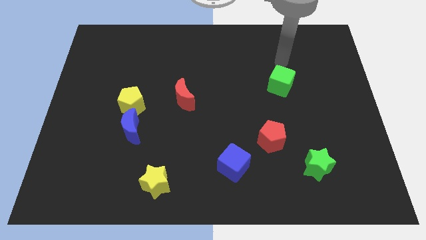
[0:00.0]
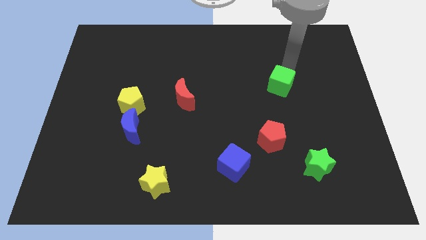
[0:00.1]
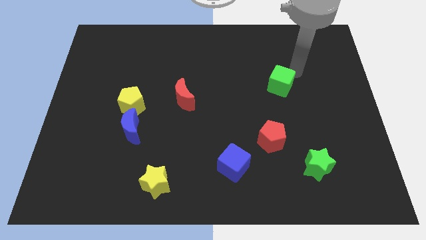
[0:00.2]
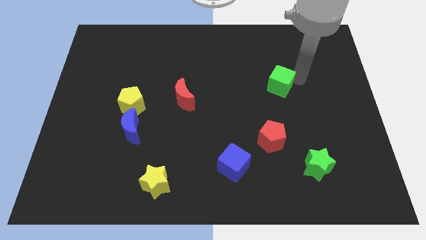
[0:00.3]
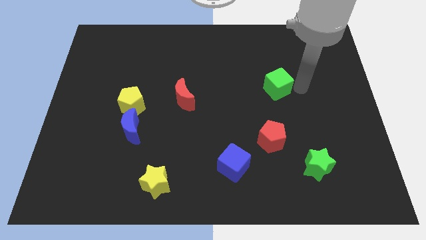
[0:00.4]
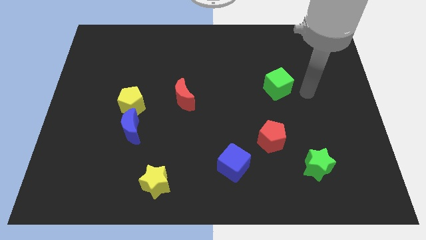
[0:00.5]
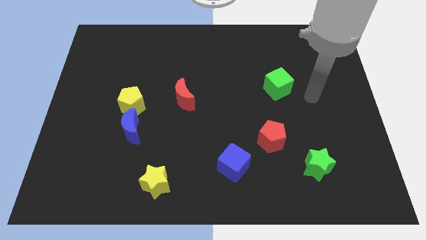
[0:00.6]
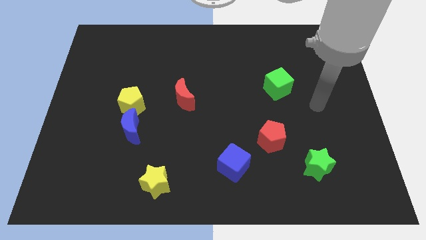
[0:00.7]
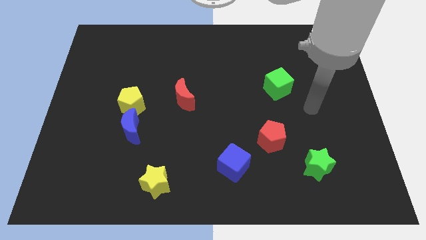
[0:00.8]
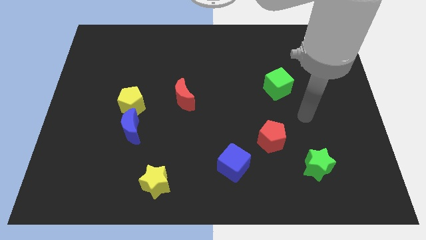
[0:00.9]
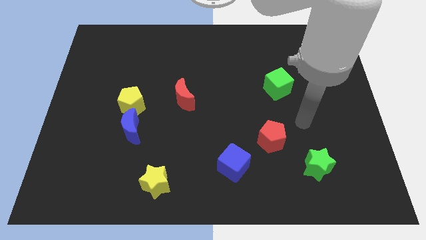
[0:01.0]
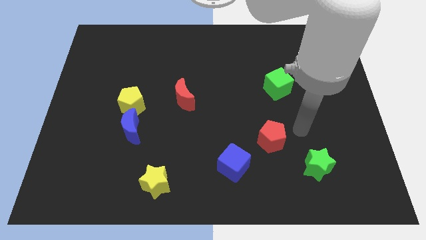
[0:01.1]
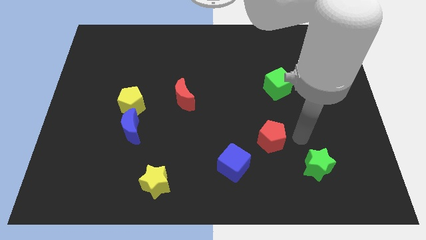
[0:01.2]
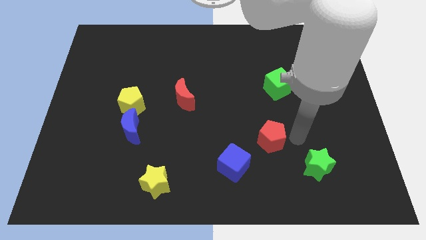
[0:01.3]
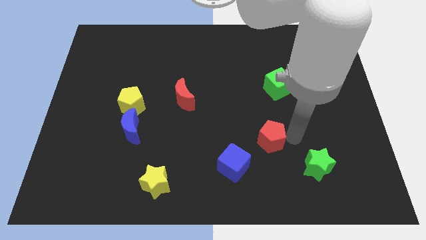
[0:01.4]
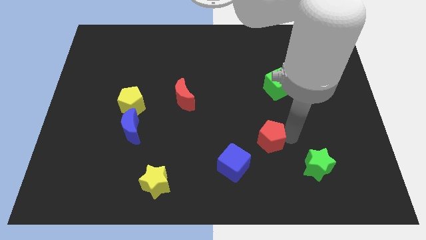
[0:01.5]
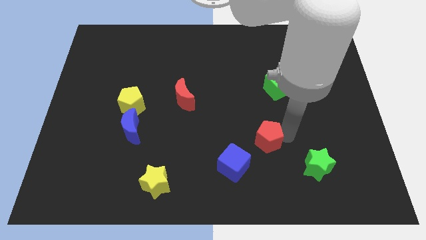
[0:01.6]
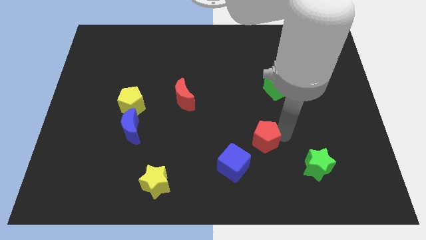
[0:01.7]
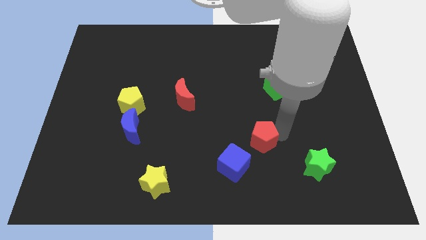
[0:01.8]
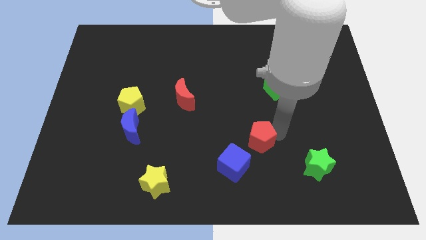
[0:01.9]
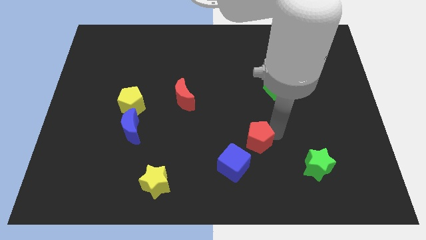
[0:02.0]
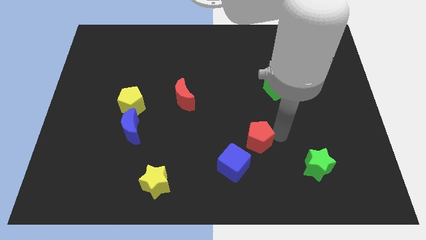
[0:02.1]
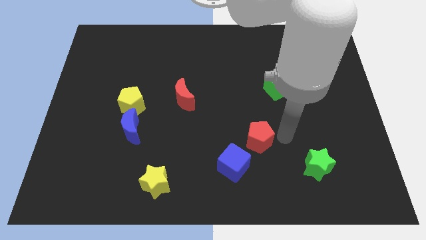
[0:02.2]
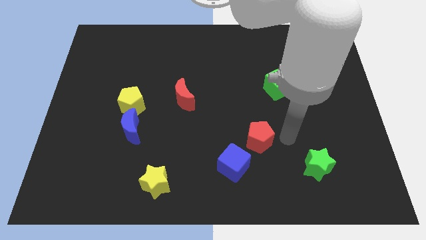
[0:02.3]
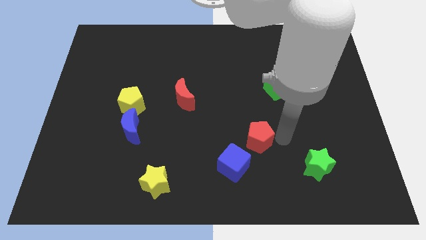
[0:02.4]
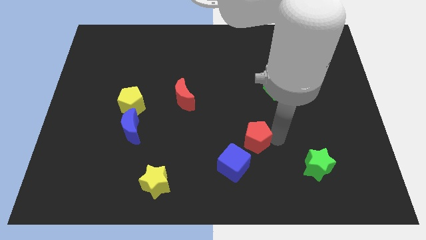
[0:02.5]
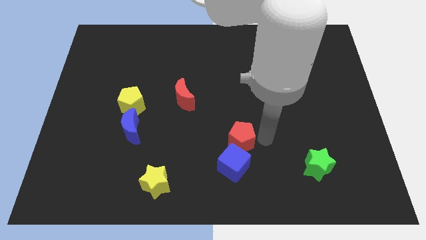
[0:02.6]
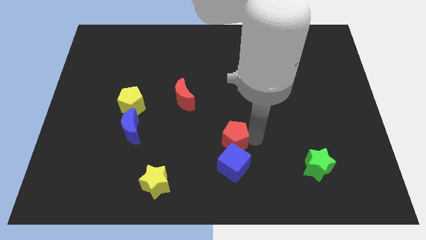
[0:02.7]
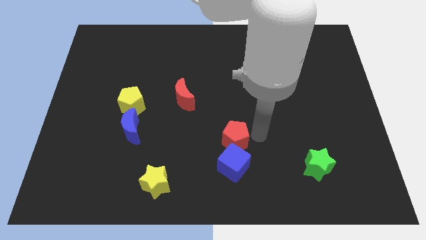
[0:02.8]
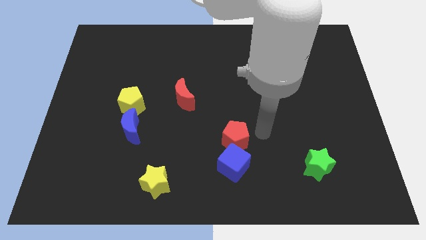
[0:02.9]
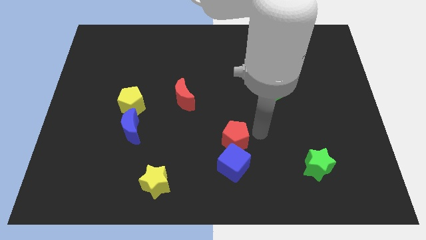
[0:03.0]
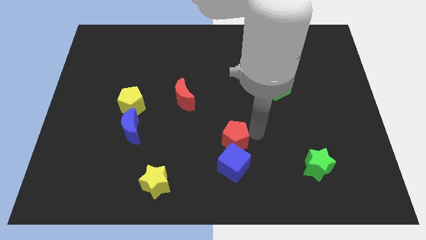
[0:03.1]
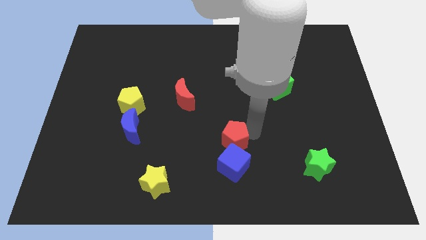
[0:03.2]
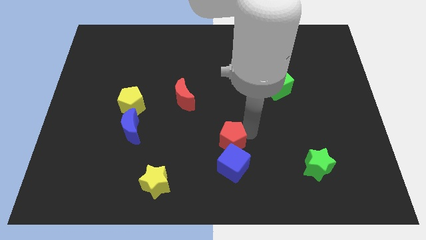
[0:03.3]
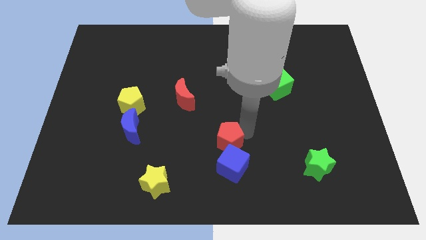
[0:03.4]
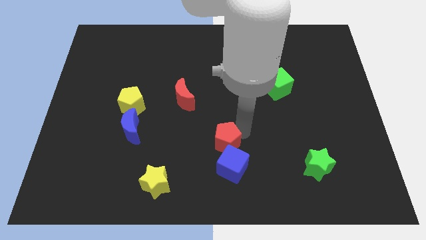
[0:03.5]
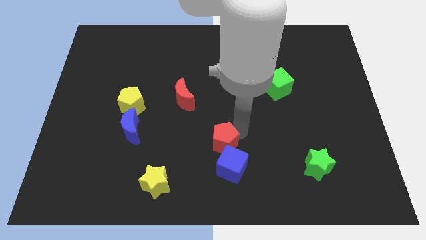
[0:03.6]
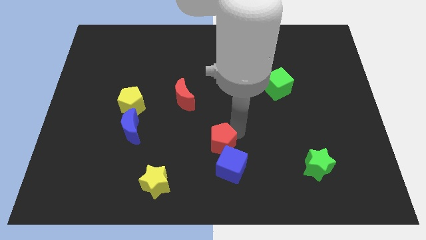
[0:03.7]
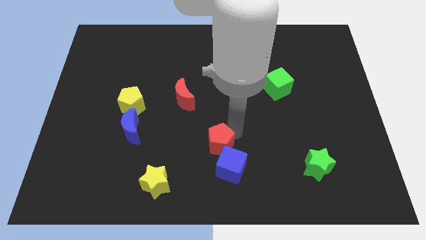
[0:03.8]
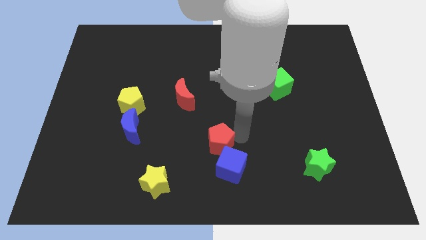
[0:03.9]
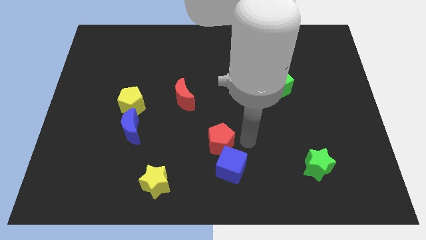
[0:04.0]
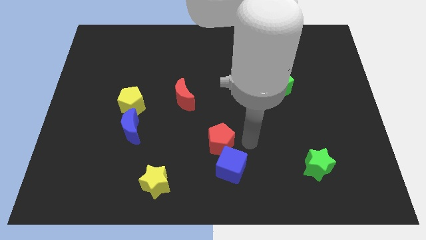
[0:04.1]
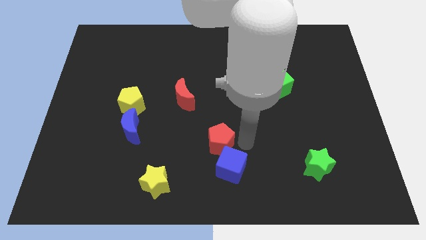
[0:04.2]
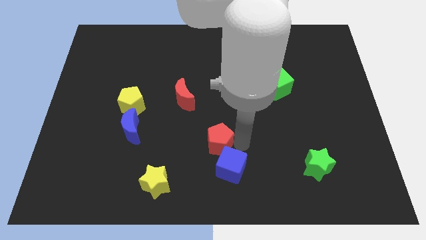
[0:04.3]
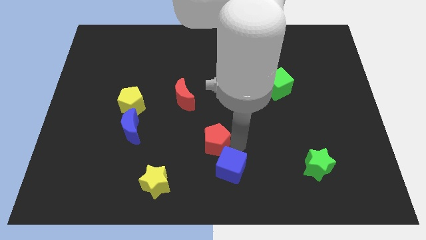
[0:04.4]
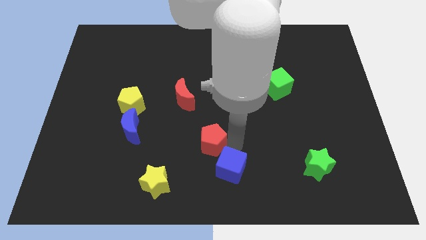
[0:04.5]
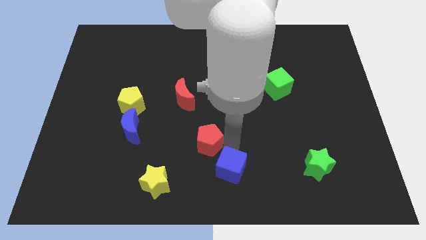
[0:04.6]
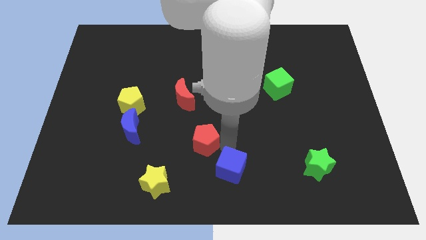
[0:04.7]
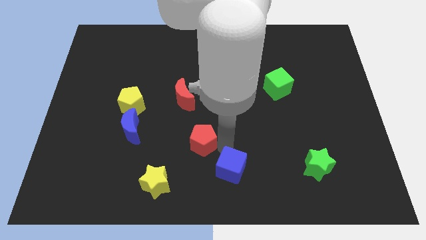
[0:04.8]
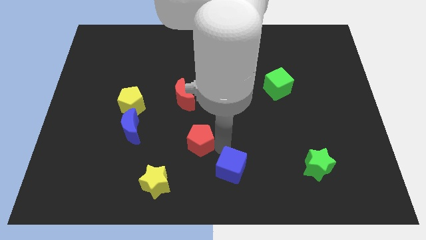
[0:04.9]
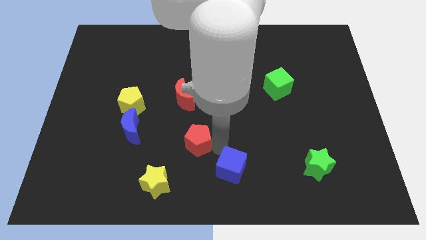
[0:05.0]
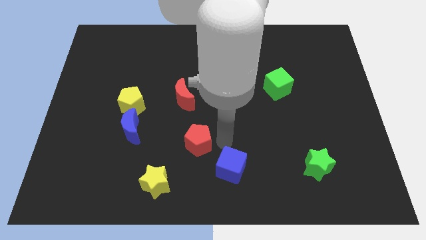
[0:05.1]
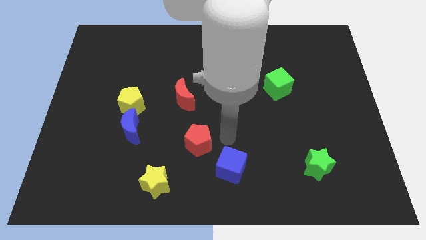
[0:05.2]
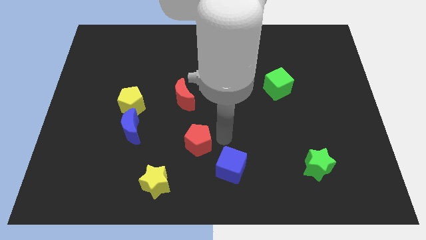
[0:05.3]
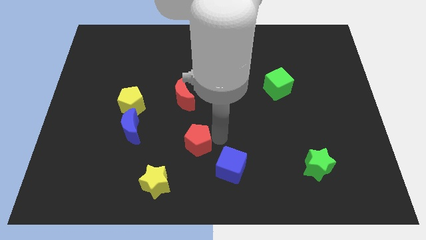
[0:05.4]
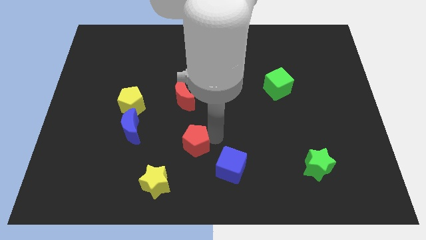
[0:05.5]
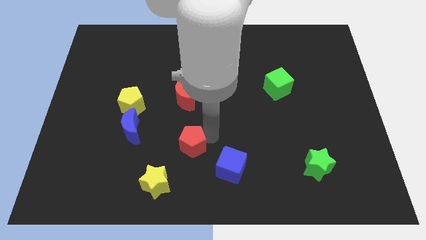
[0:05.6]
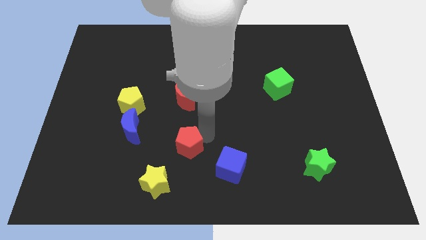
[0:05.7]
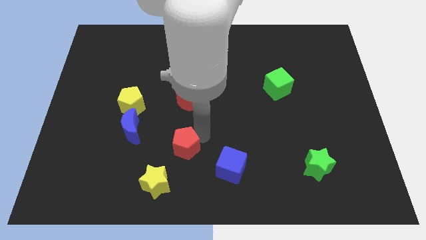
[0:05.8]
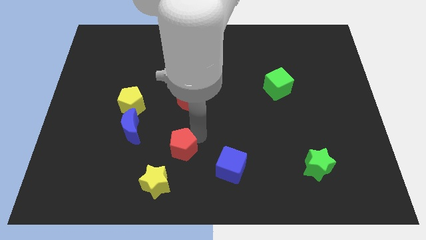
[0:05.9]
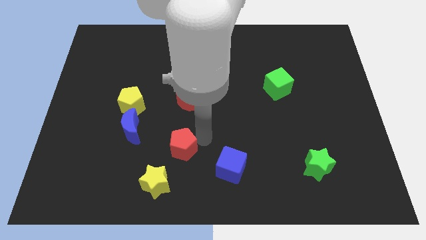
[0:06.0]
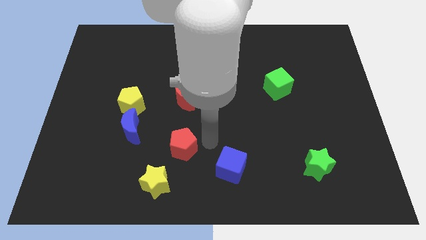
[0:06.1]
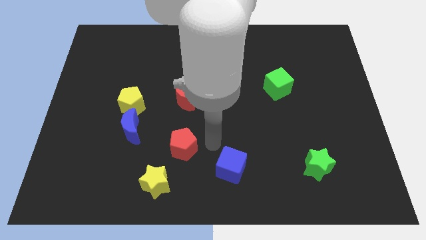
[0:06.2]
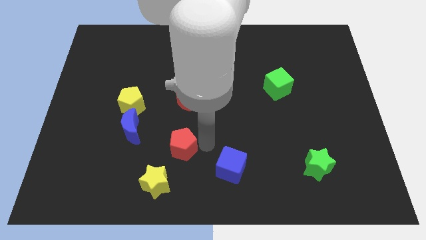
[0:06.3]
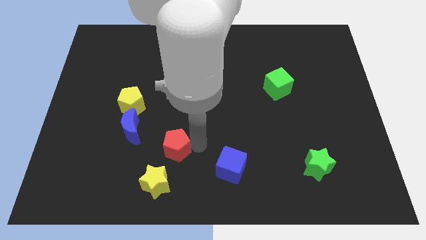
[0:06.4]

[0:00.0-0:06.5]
put the red pentagon to the bottom right side of the blue moon

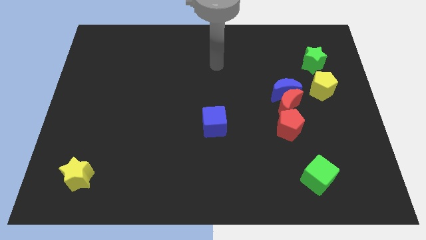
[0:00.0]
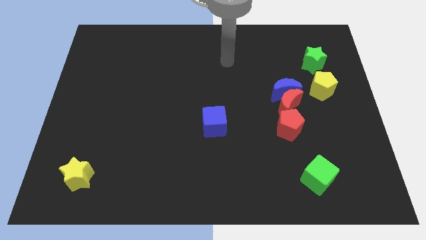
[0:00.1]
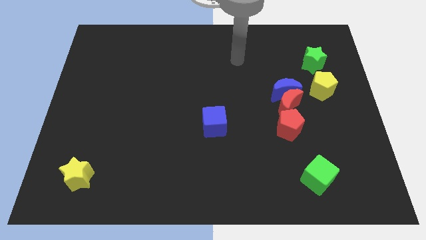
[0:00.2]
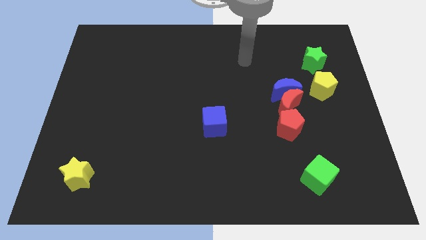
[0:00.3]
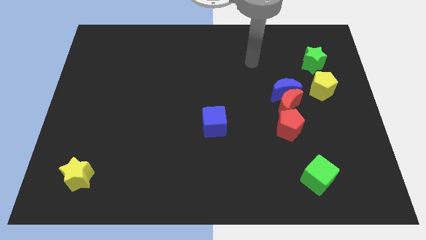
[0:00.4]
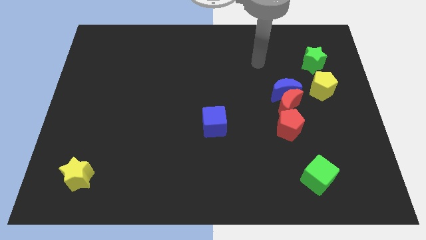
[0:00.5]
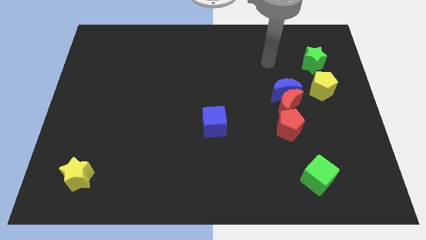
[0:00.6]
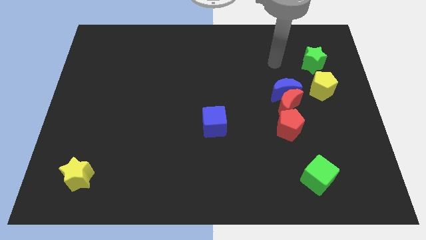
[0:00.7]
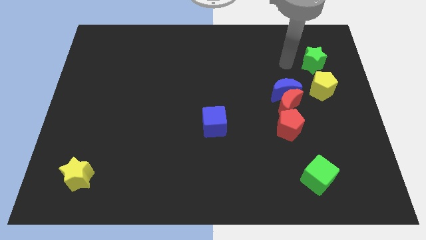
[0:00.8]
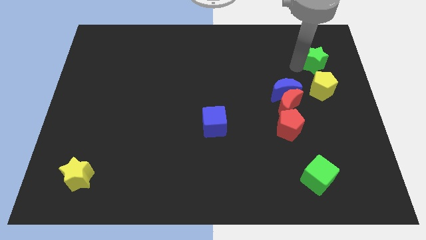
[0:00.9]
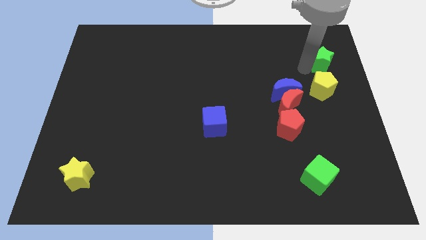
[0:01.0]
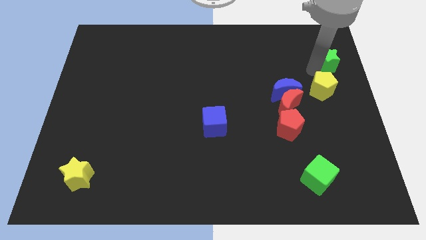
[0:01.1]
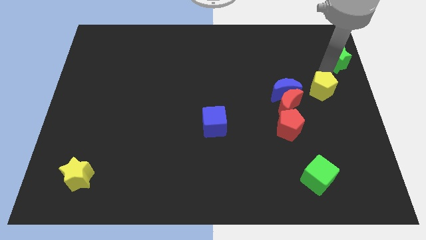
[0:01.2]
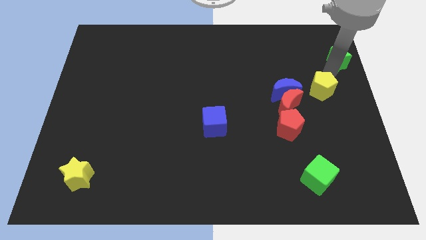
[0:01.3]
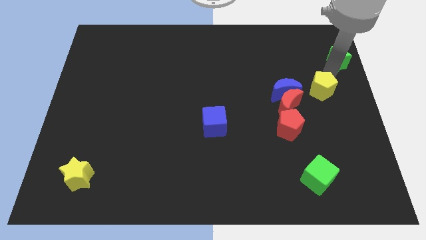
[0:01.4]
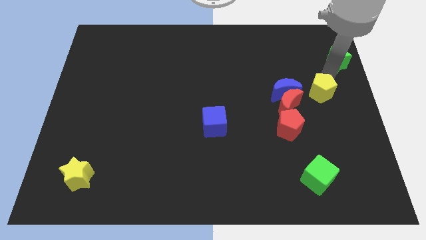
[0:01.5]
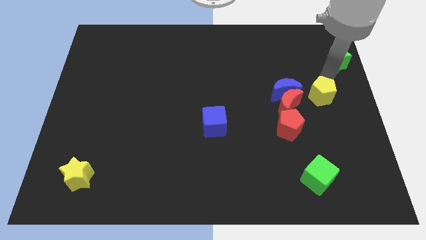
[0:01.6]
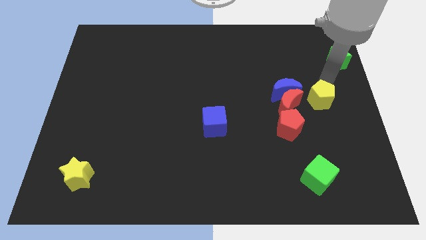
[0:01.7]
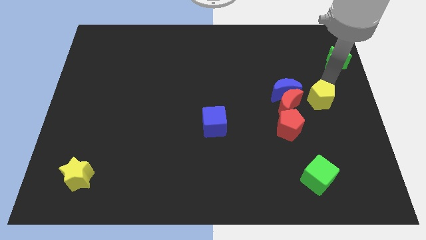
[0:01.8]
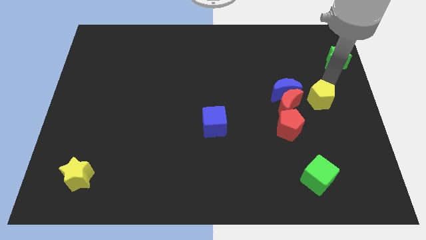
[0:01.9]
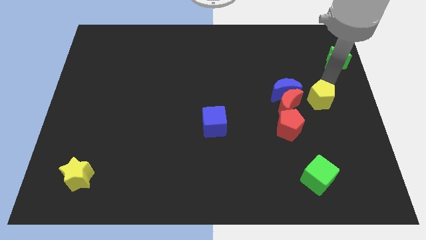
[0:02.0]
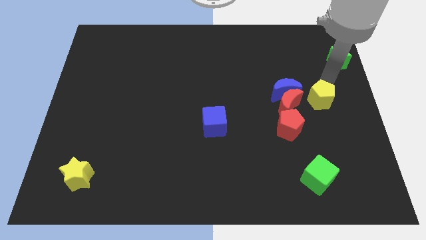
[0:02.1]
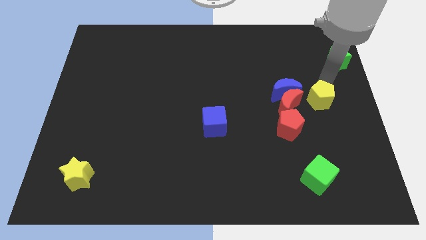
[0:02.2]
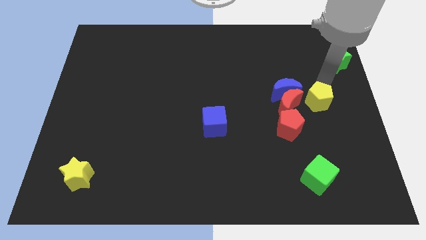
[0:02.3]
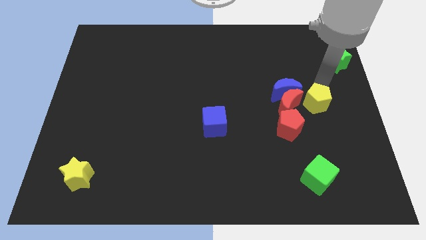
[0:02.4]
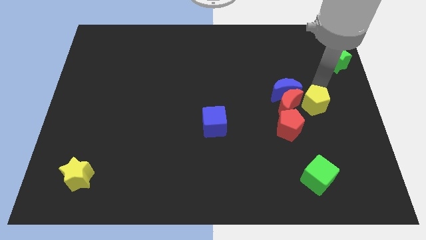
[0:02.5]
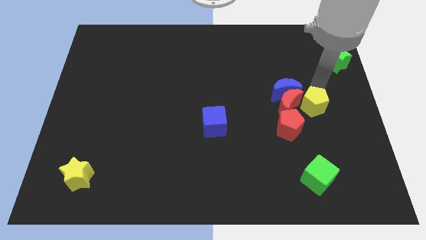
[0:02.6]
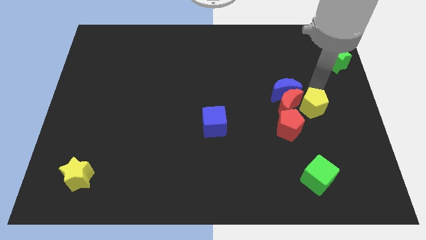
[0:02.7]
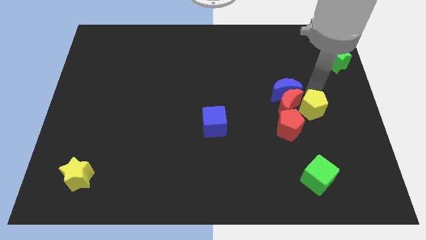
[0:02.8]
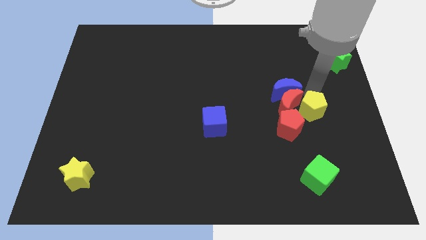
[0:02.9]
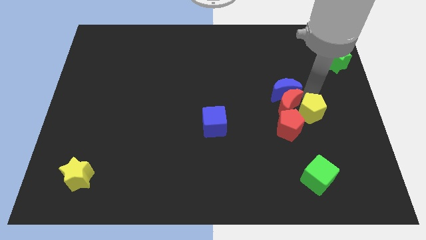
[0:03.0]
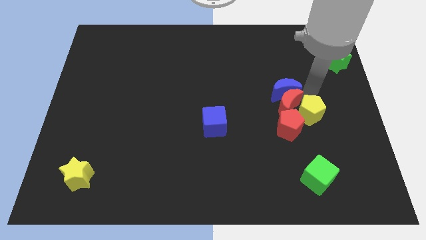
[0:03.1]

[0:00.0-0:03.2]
push the yellow pentagon above the green cube
